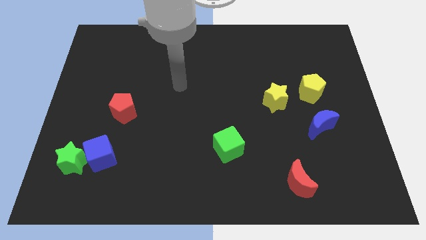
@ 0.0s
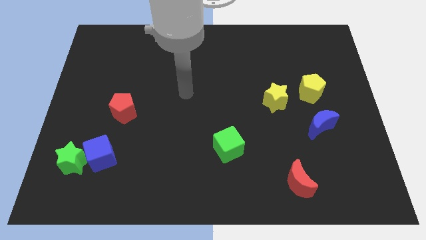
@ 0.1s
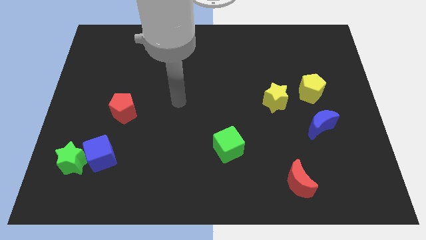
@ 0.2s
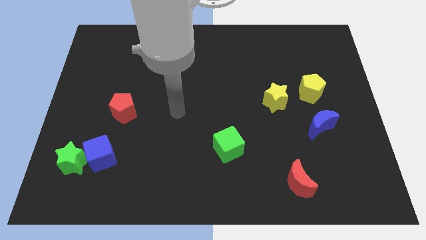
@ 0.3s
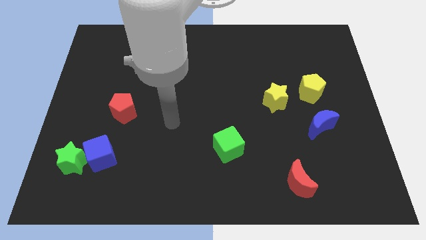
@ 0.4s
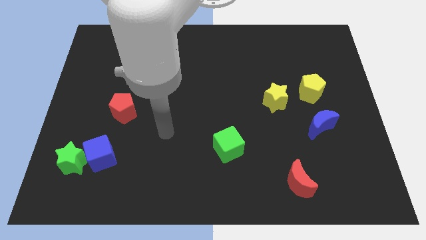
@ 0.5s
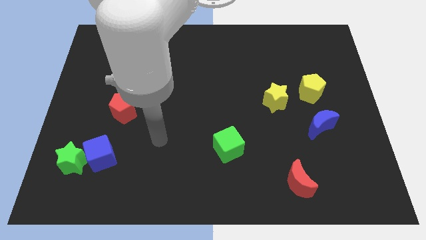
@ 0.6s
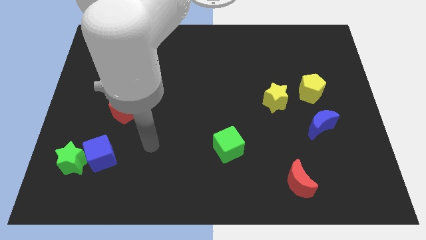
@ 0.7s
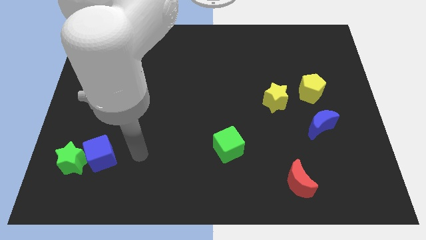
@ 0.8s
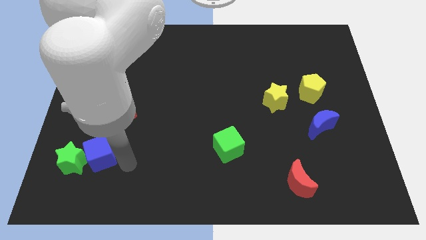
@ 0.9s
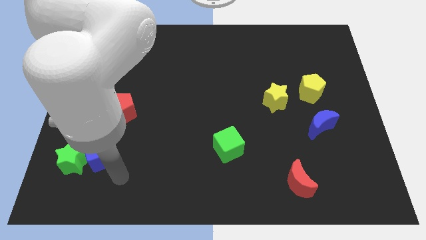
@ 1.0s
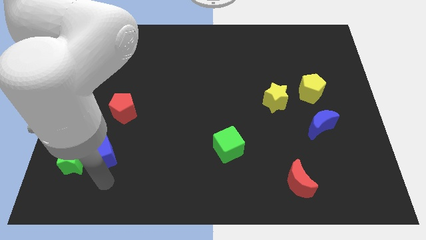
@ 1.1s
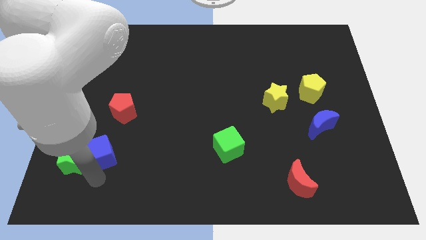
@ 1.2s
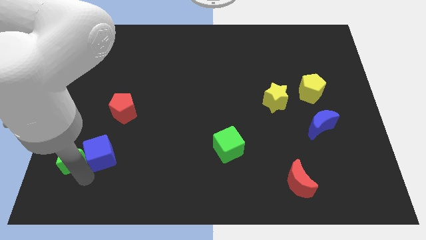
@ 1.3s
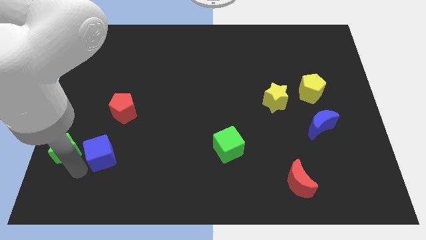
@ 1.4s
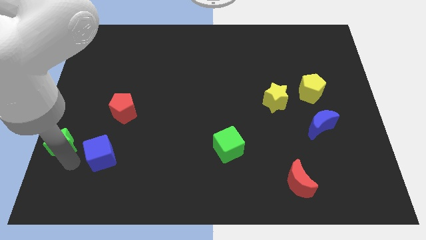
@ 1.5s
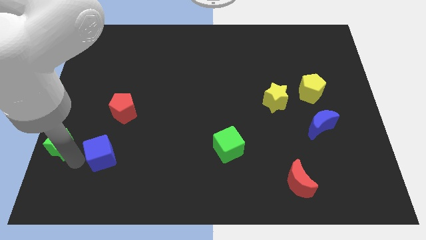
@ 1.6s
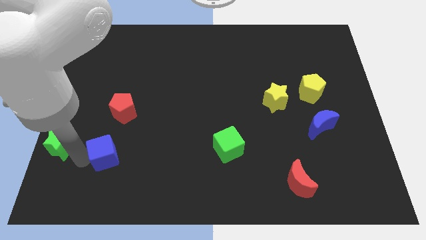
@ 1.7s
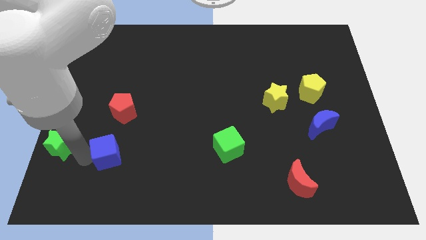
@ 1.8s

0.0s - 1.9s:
move the blue cube away from the green star

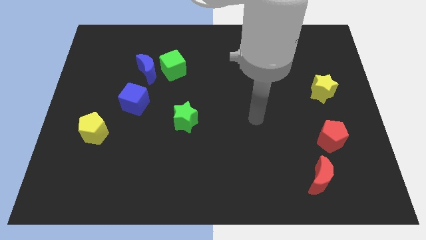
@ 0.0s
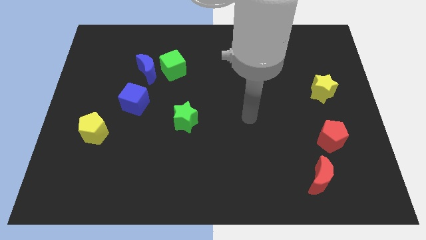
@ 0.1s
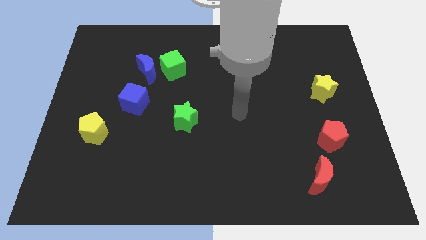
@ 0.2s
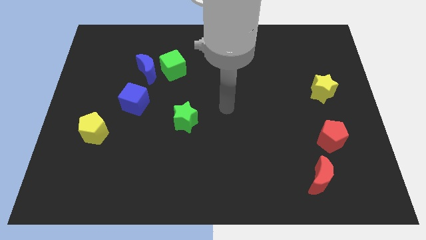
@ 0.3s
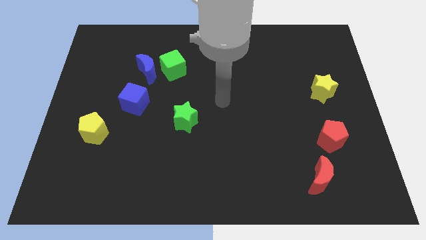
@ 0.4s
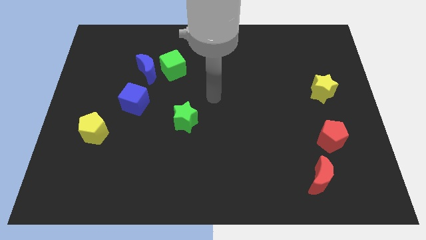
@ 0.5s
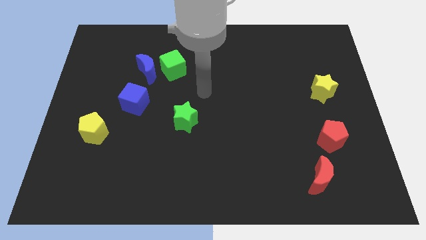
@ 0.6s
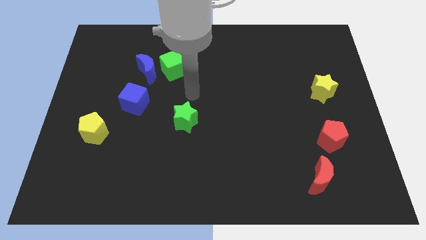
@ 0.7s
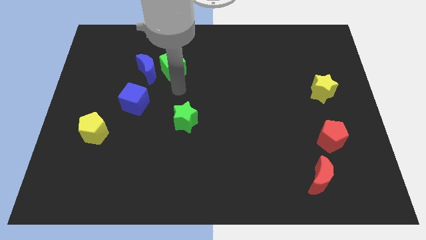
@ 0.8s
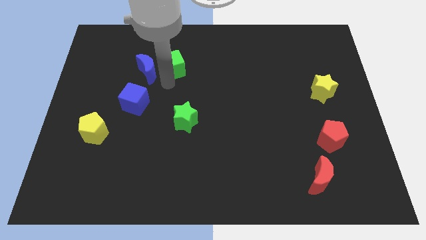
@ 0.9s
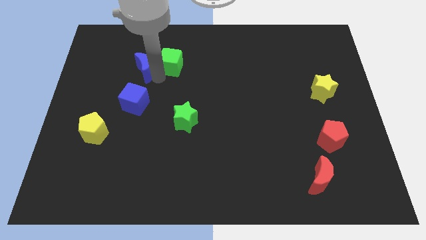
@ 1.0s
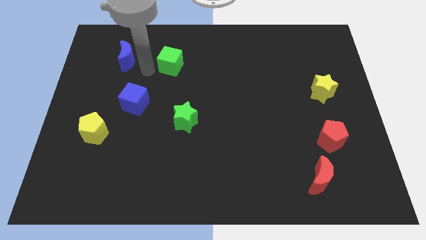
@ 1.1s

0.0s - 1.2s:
separate the green cube from the blue moon

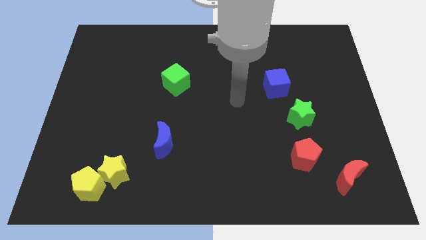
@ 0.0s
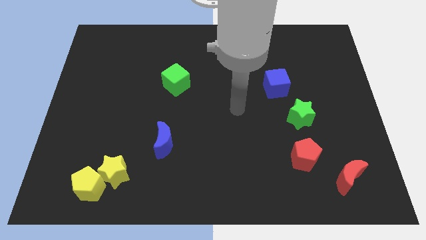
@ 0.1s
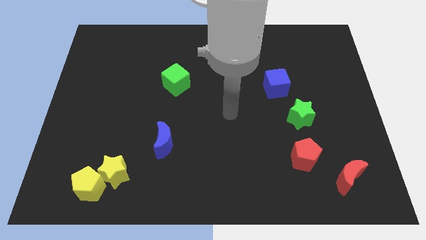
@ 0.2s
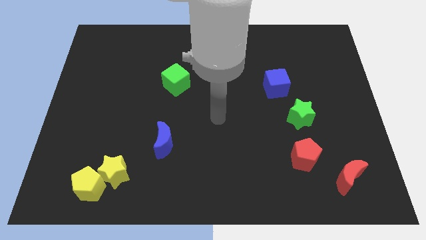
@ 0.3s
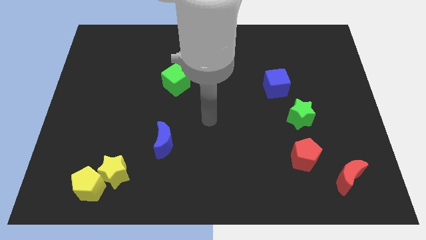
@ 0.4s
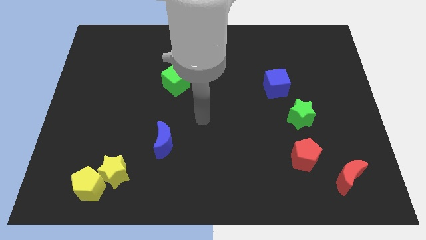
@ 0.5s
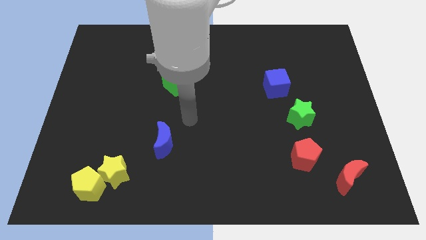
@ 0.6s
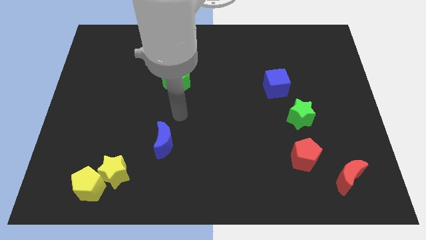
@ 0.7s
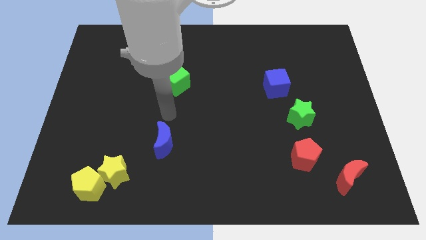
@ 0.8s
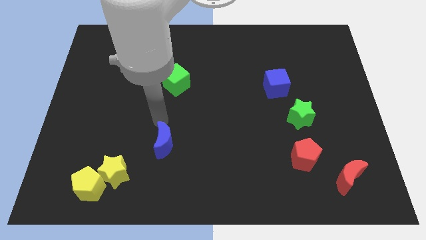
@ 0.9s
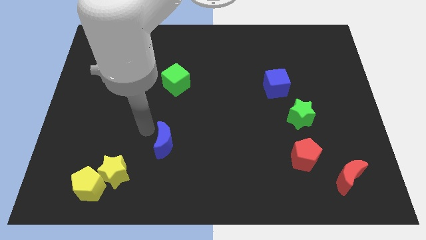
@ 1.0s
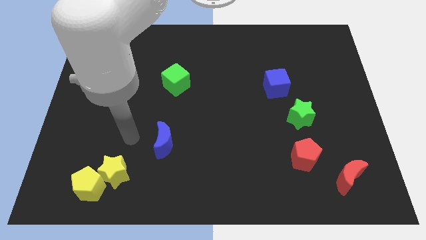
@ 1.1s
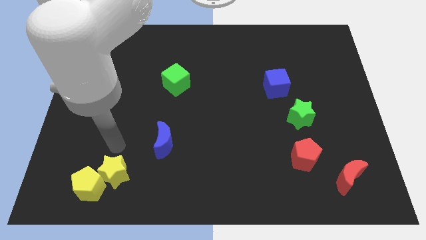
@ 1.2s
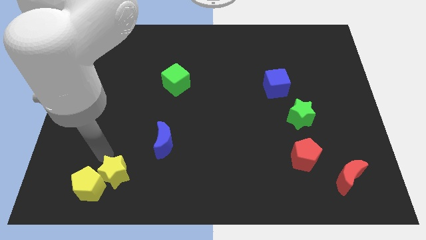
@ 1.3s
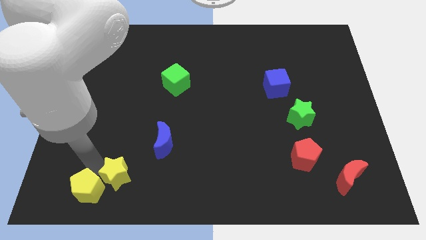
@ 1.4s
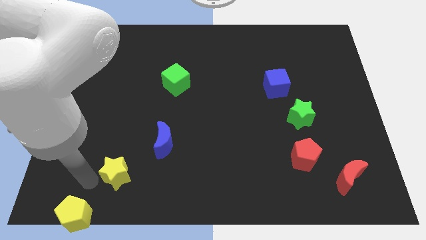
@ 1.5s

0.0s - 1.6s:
separate the yellow star from the yellow pentagon

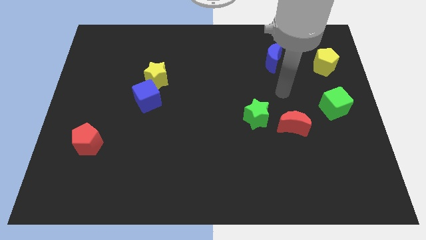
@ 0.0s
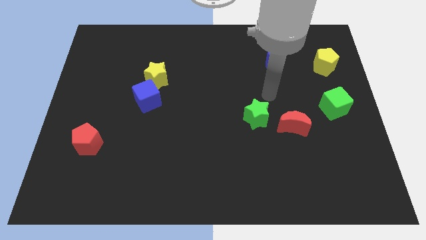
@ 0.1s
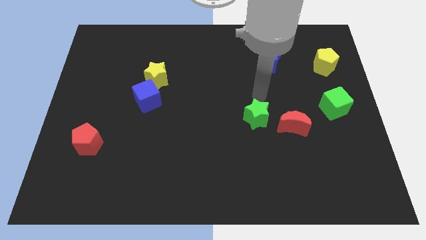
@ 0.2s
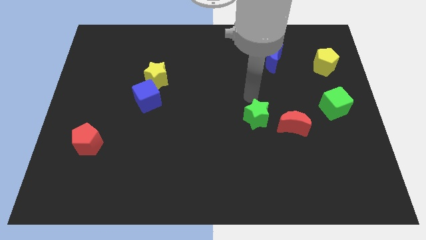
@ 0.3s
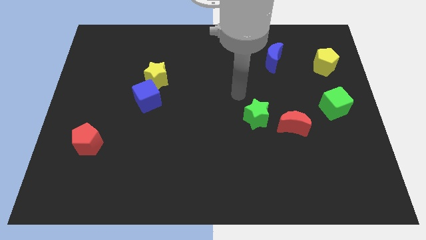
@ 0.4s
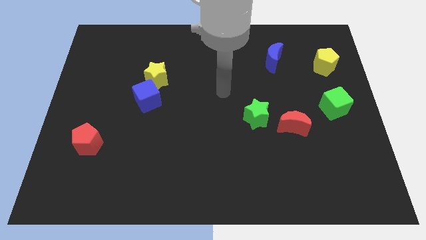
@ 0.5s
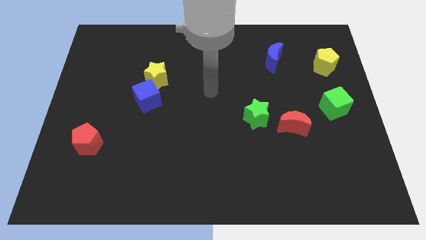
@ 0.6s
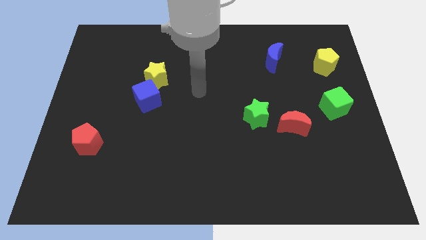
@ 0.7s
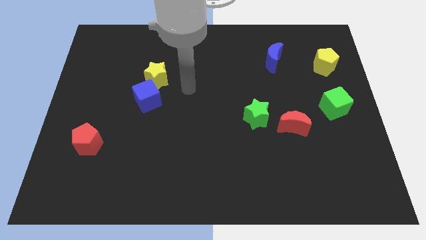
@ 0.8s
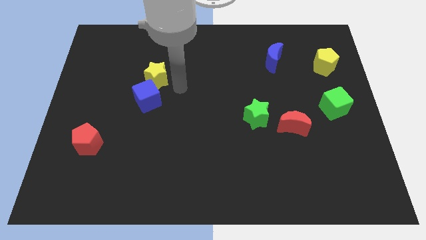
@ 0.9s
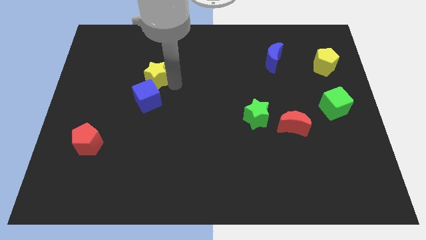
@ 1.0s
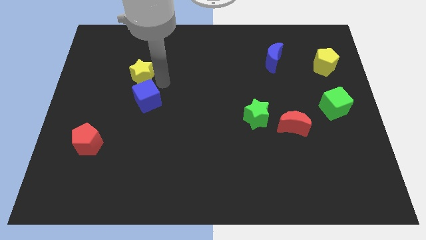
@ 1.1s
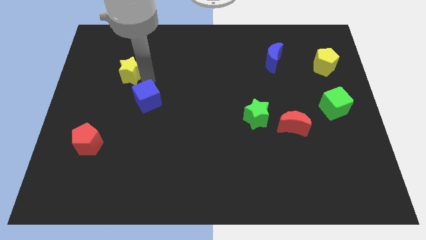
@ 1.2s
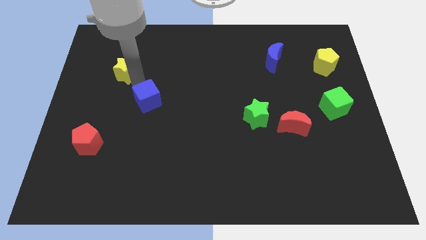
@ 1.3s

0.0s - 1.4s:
move the blue cube away from the yellow star

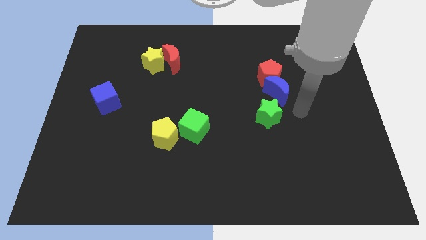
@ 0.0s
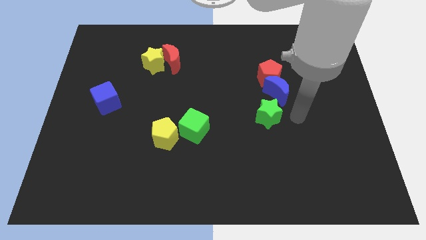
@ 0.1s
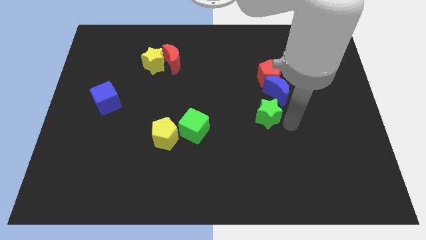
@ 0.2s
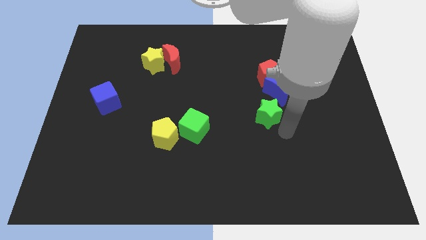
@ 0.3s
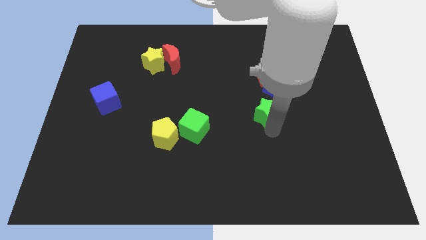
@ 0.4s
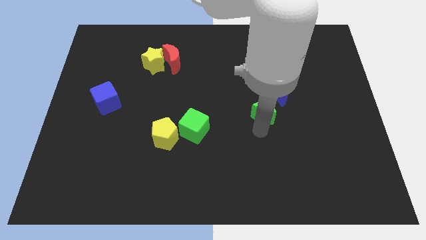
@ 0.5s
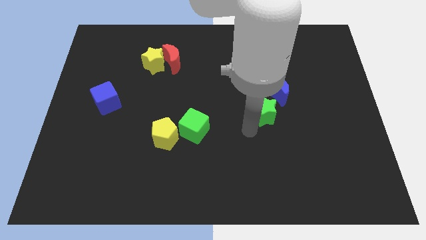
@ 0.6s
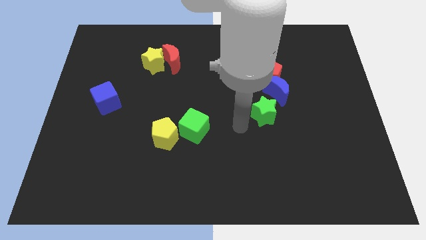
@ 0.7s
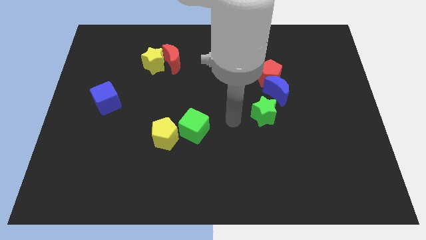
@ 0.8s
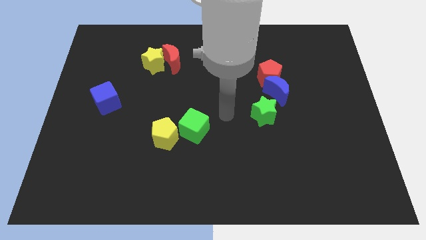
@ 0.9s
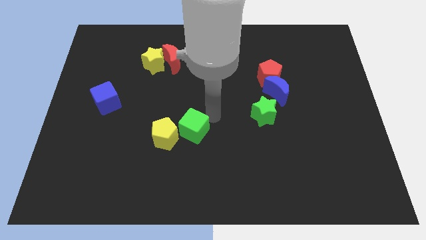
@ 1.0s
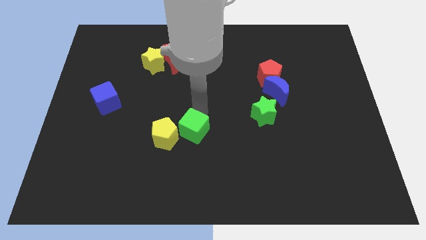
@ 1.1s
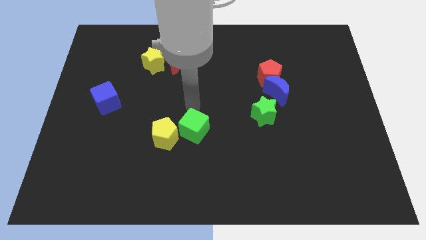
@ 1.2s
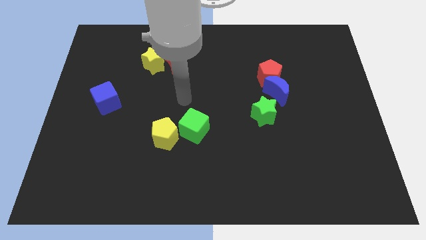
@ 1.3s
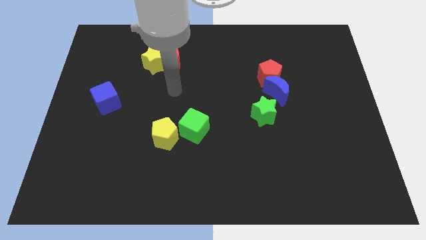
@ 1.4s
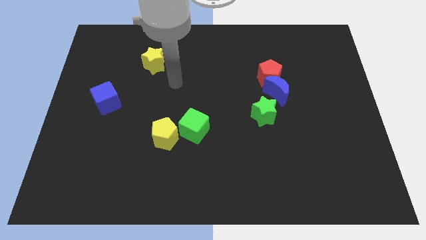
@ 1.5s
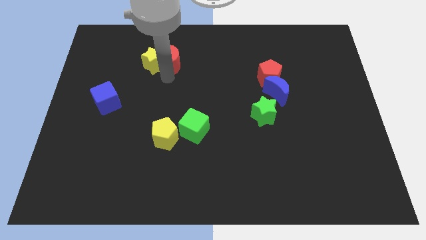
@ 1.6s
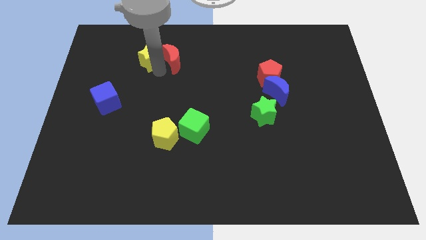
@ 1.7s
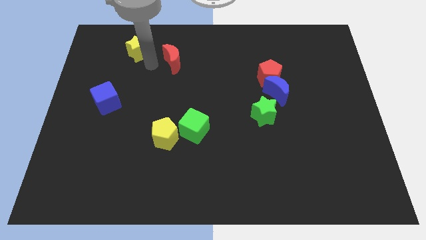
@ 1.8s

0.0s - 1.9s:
move the red moon away from the yellow star

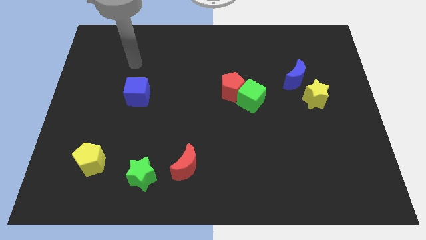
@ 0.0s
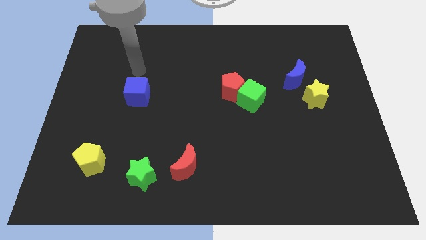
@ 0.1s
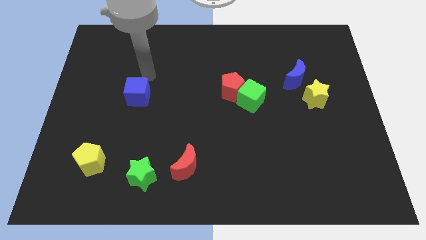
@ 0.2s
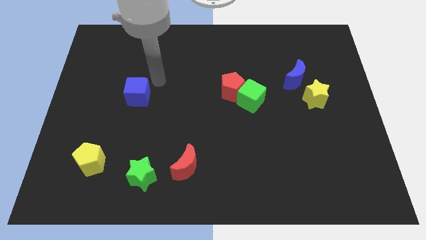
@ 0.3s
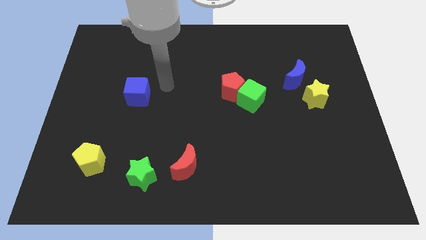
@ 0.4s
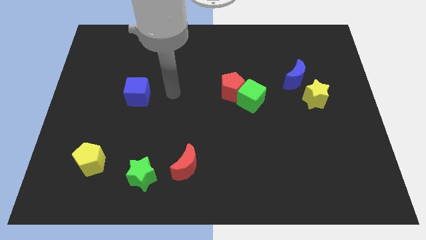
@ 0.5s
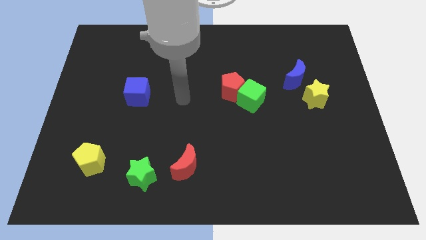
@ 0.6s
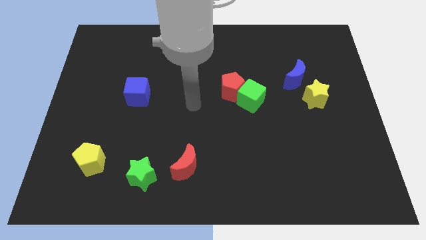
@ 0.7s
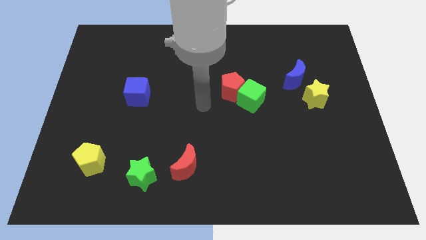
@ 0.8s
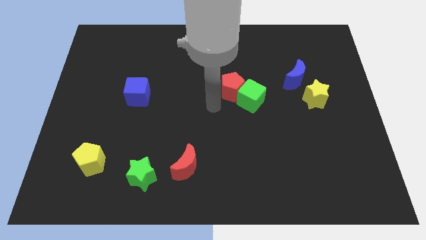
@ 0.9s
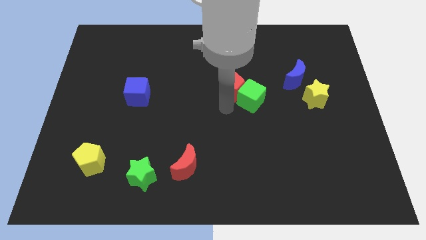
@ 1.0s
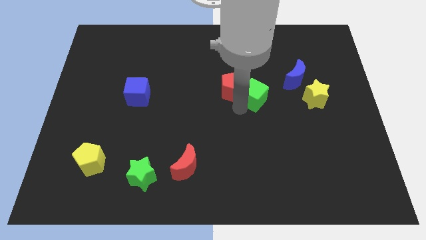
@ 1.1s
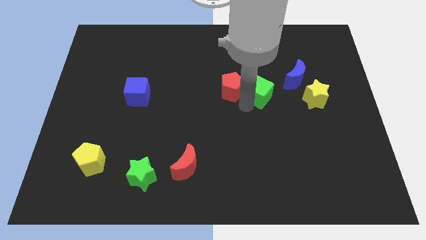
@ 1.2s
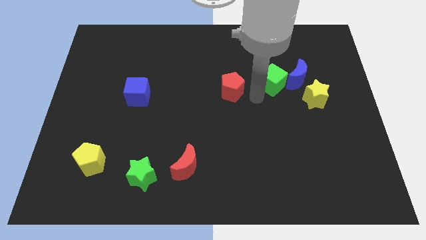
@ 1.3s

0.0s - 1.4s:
separate the red pentagon from the green cube
